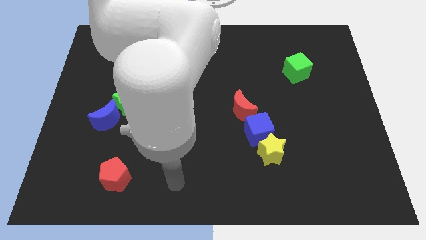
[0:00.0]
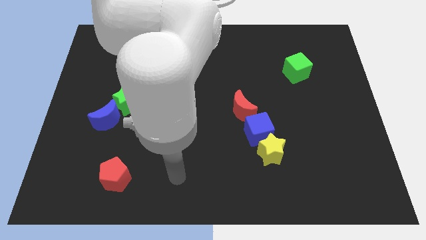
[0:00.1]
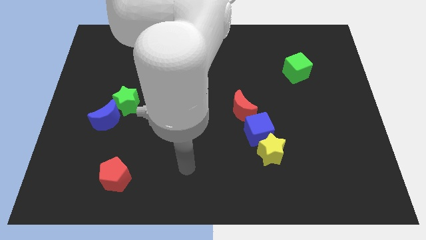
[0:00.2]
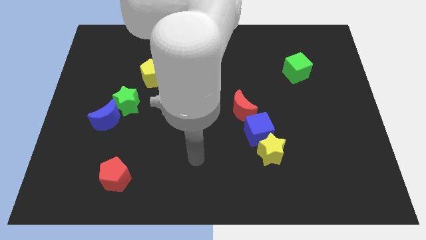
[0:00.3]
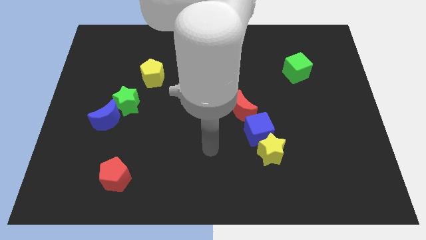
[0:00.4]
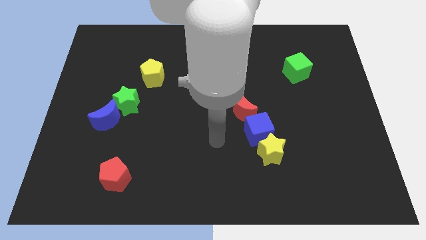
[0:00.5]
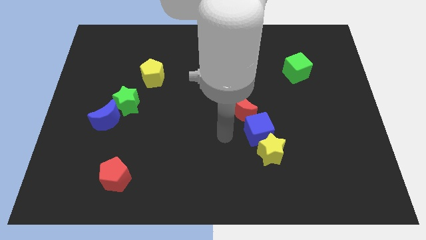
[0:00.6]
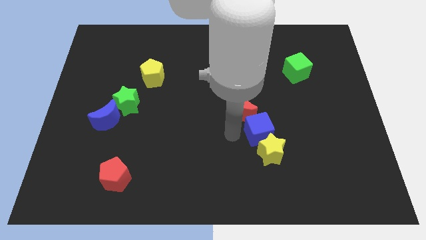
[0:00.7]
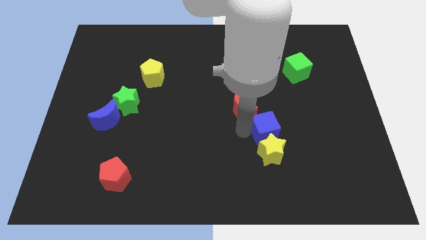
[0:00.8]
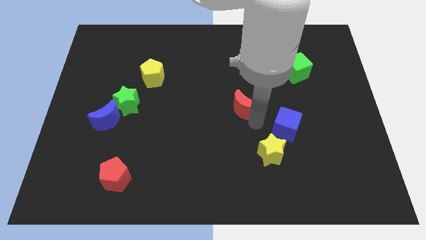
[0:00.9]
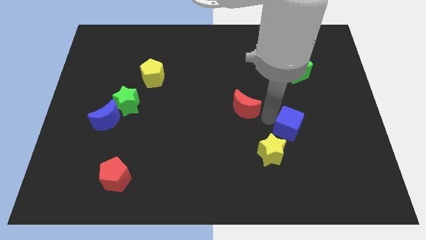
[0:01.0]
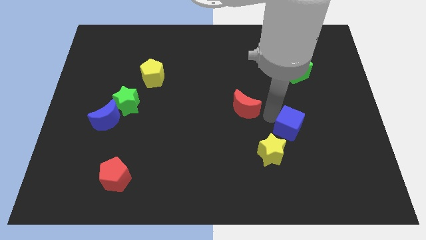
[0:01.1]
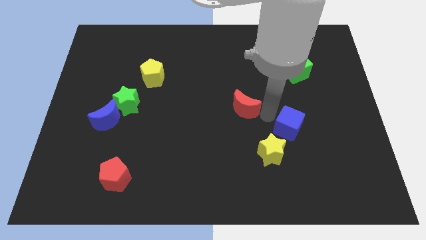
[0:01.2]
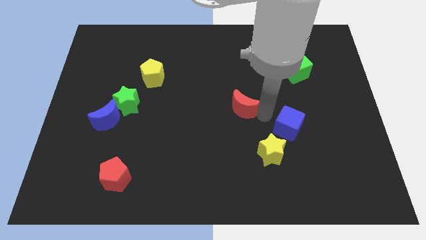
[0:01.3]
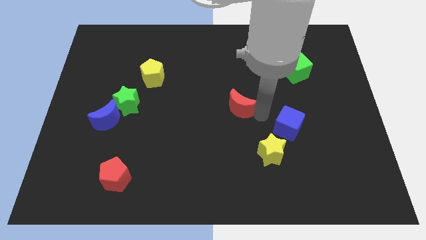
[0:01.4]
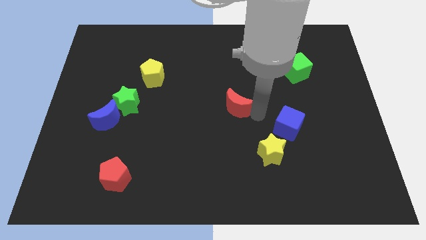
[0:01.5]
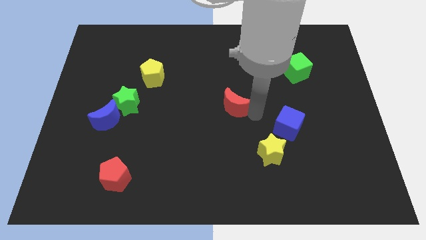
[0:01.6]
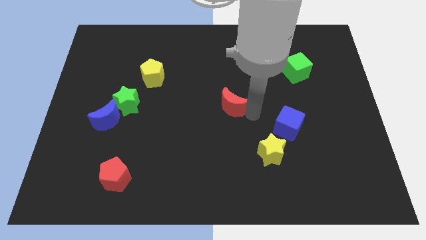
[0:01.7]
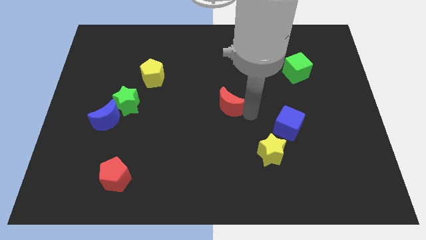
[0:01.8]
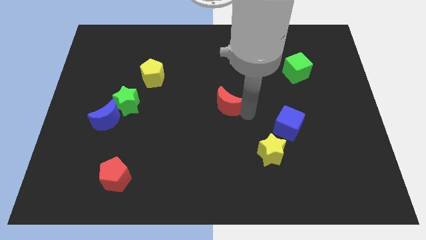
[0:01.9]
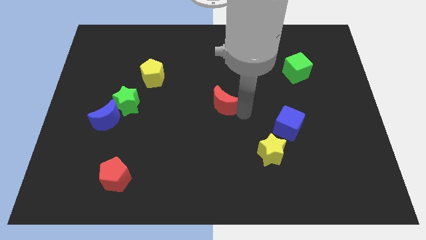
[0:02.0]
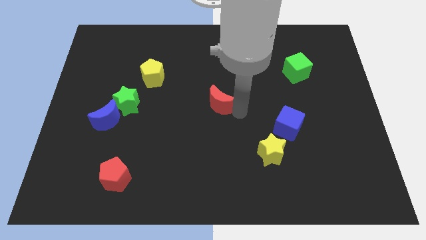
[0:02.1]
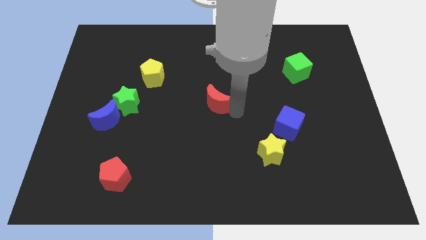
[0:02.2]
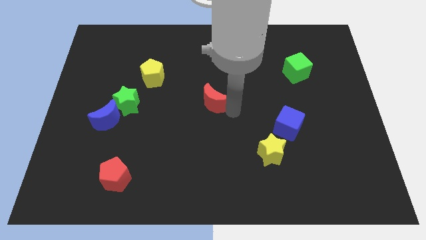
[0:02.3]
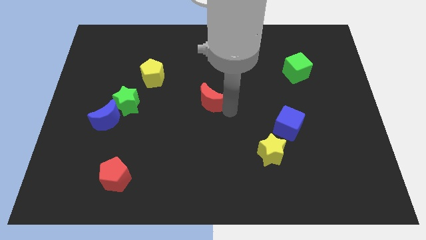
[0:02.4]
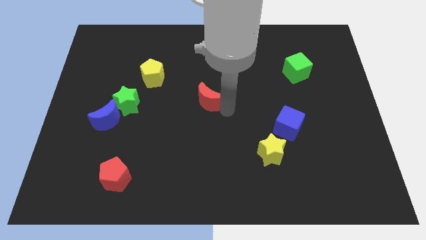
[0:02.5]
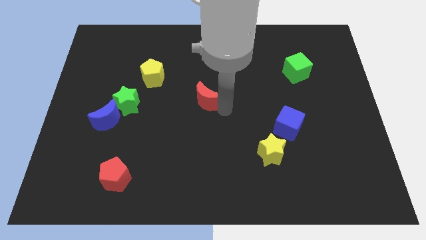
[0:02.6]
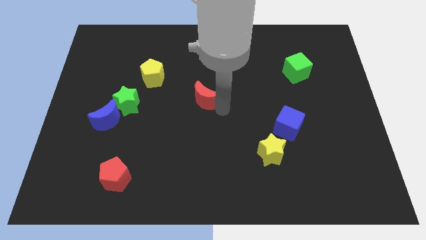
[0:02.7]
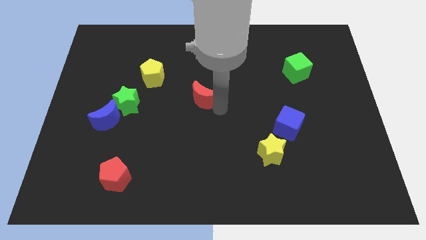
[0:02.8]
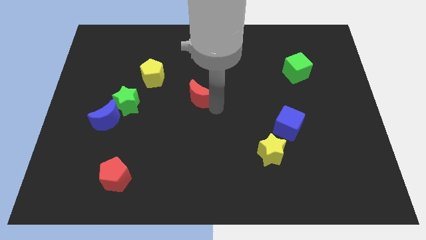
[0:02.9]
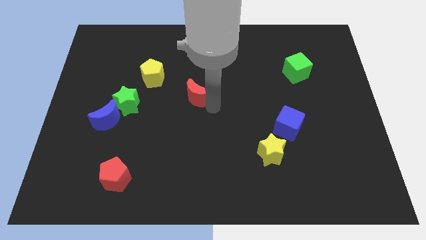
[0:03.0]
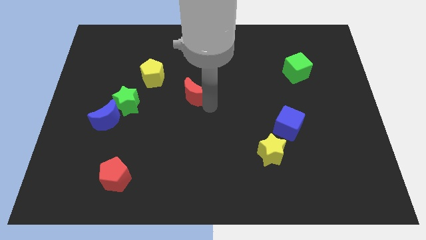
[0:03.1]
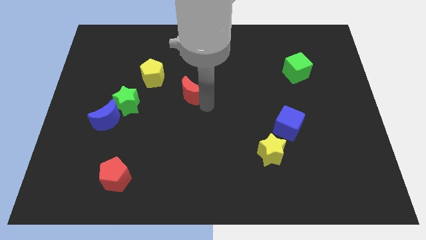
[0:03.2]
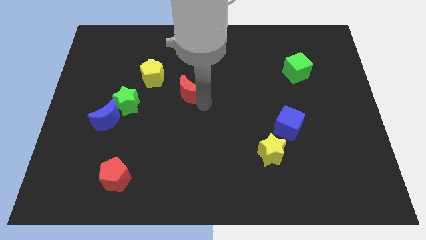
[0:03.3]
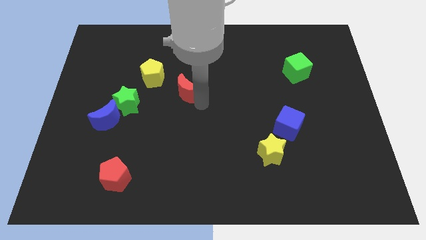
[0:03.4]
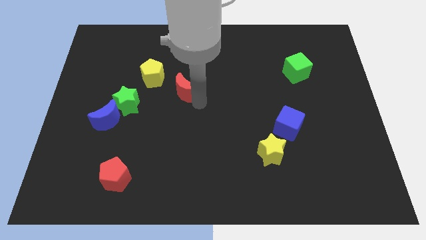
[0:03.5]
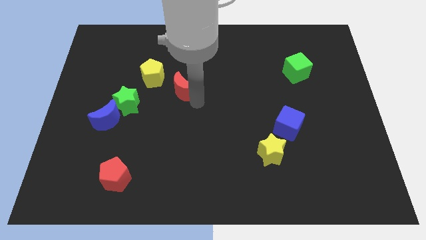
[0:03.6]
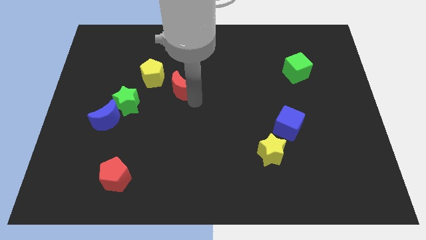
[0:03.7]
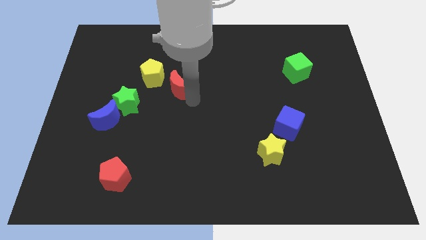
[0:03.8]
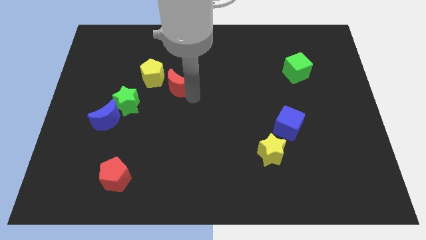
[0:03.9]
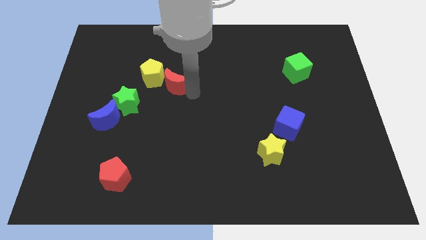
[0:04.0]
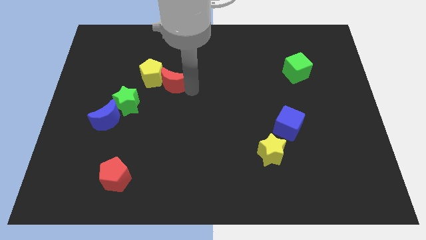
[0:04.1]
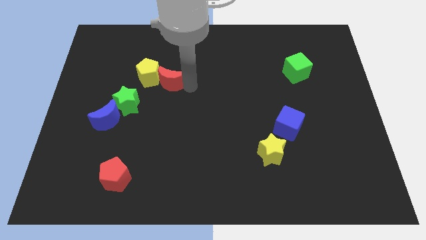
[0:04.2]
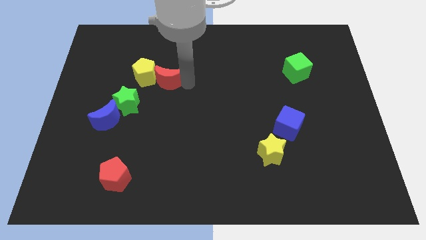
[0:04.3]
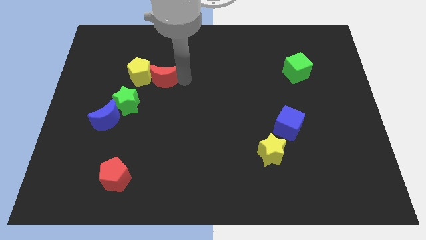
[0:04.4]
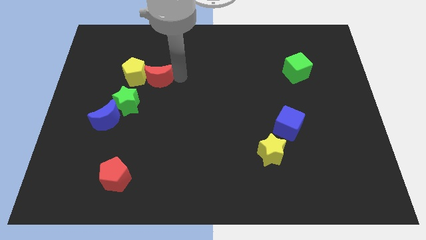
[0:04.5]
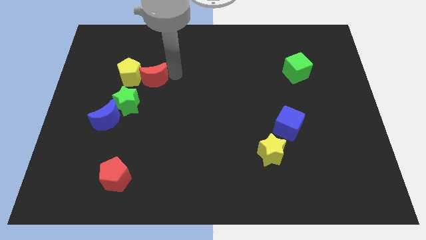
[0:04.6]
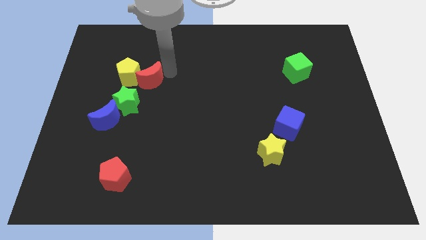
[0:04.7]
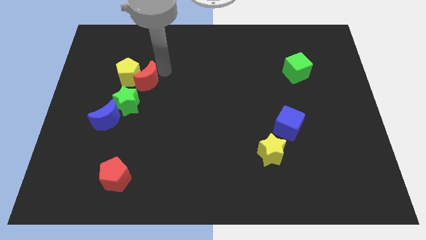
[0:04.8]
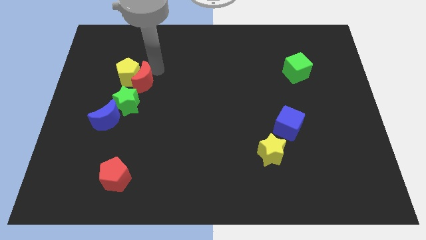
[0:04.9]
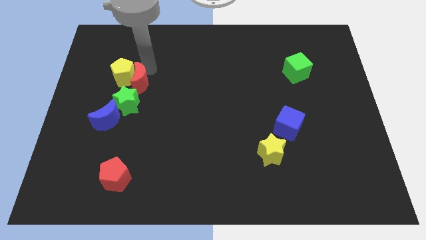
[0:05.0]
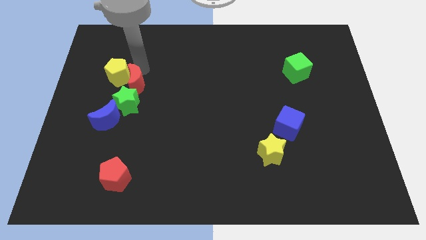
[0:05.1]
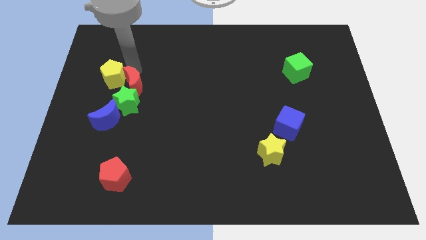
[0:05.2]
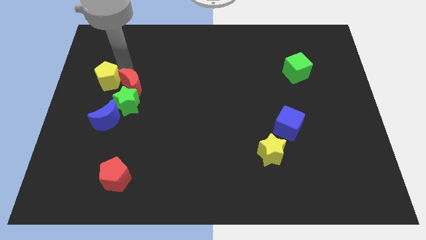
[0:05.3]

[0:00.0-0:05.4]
move the red moon to the top left of the green star

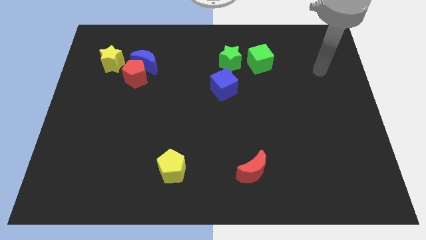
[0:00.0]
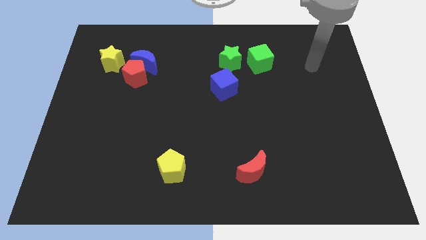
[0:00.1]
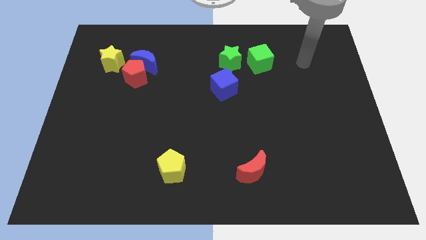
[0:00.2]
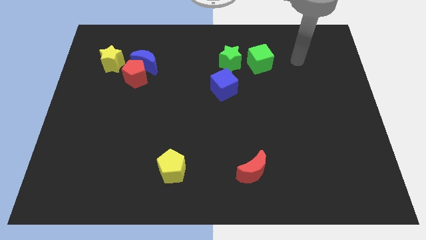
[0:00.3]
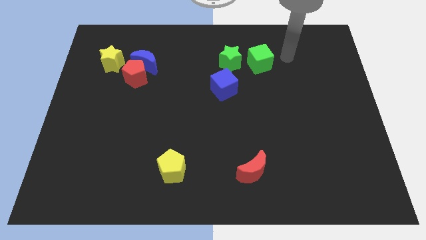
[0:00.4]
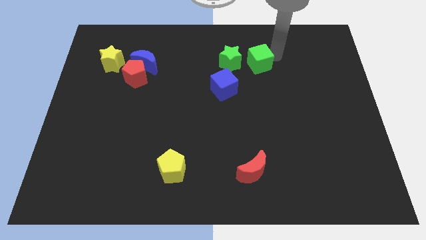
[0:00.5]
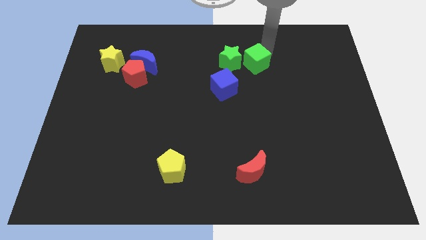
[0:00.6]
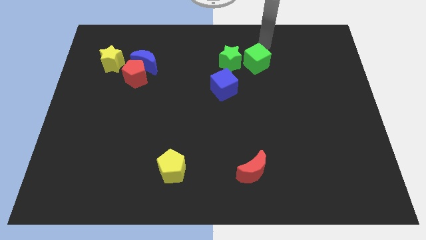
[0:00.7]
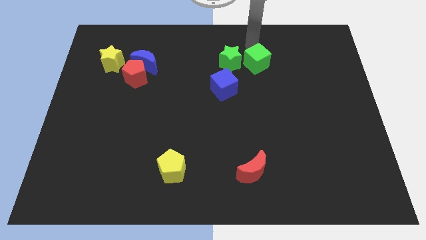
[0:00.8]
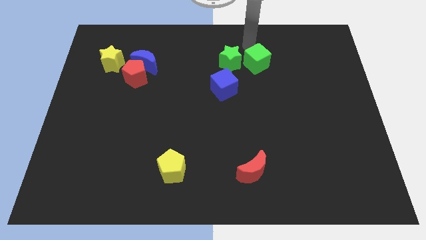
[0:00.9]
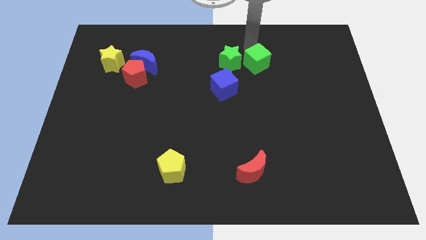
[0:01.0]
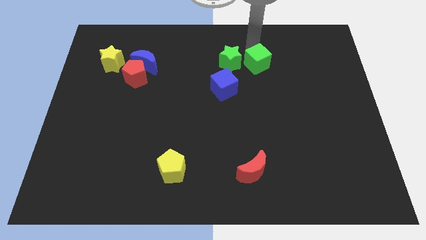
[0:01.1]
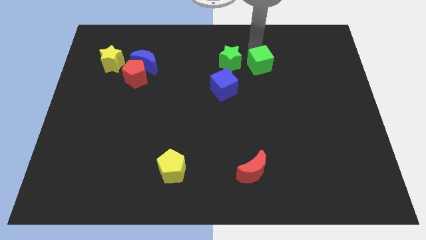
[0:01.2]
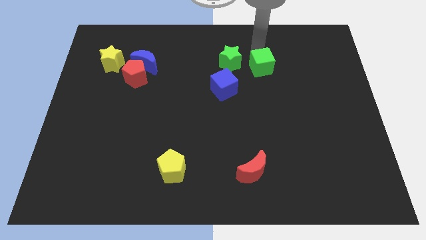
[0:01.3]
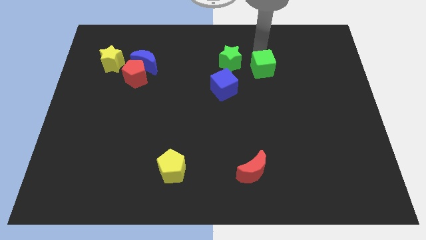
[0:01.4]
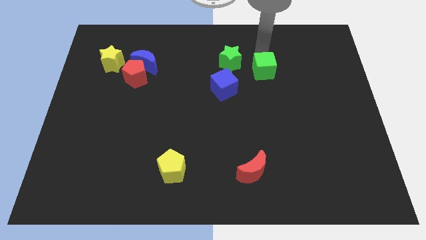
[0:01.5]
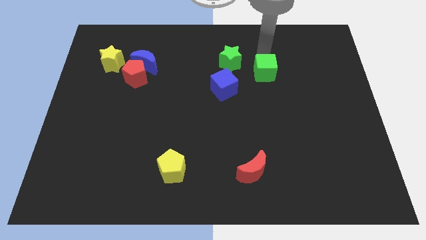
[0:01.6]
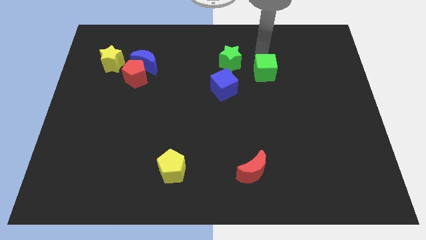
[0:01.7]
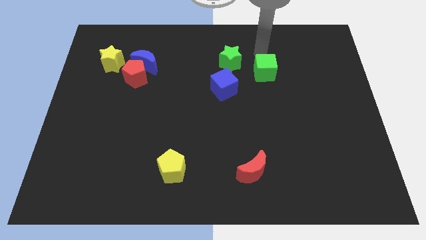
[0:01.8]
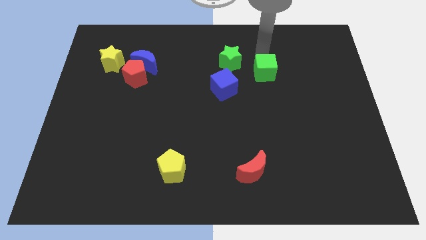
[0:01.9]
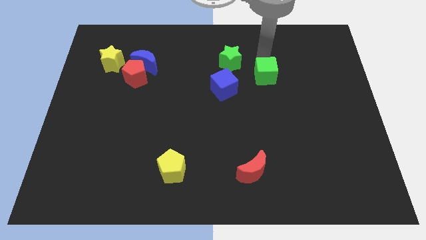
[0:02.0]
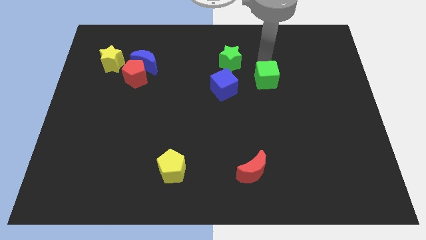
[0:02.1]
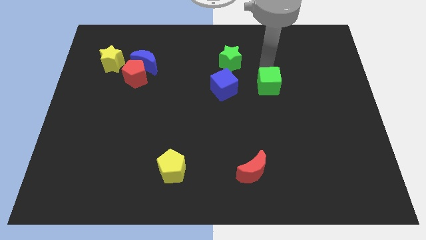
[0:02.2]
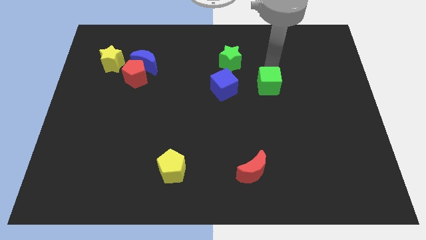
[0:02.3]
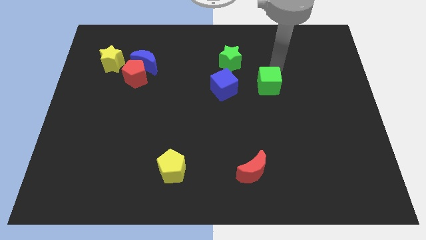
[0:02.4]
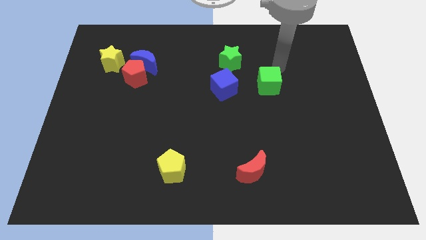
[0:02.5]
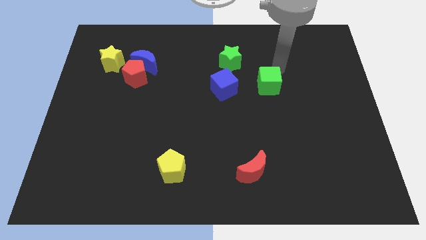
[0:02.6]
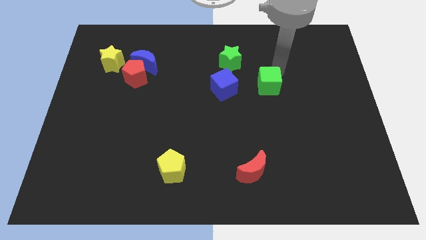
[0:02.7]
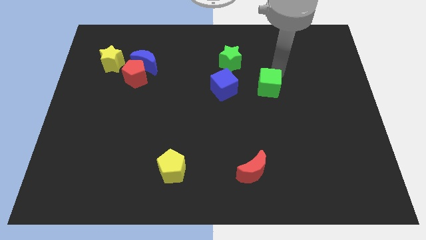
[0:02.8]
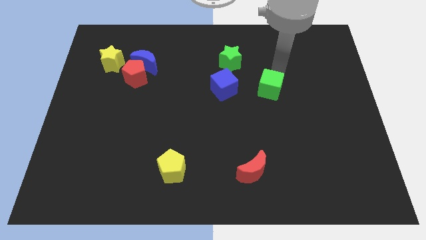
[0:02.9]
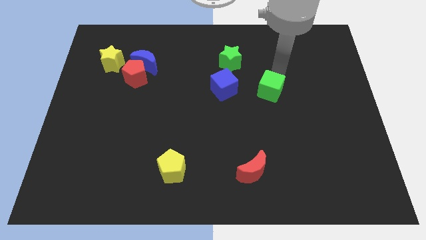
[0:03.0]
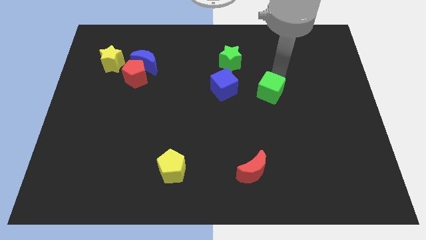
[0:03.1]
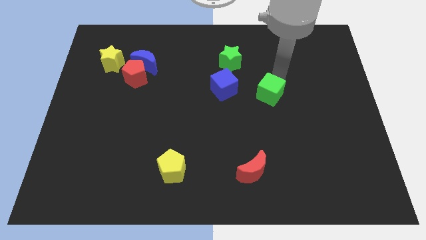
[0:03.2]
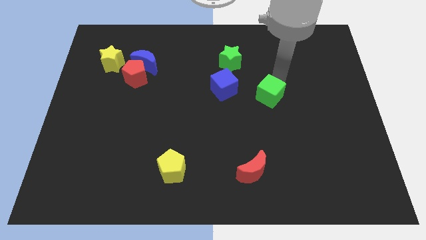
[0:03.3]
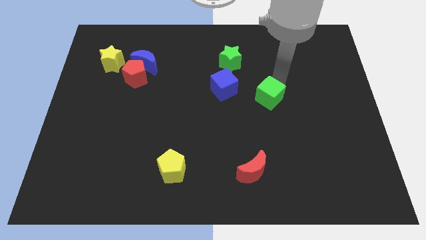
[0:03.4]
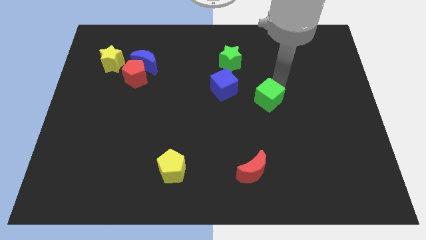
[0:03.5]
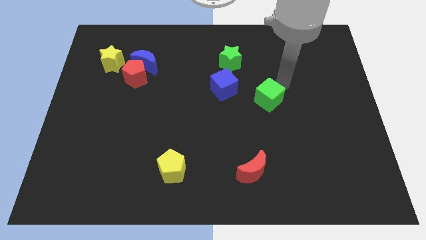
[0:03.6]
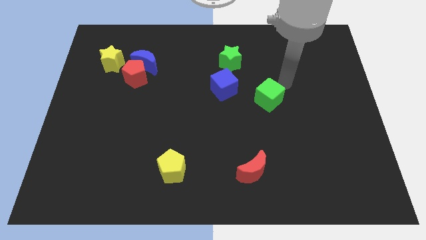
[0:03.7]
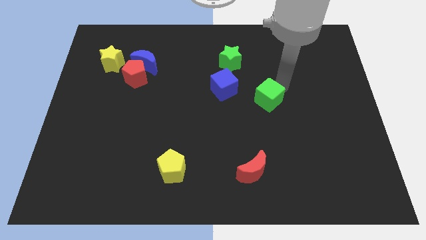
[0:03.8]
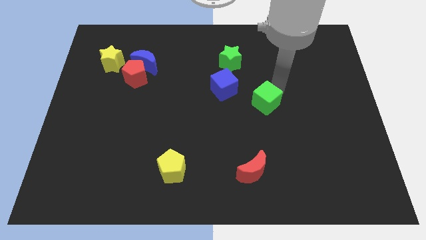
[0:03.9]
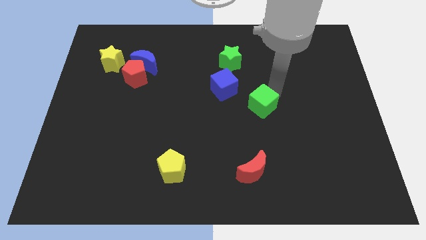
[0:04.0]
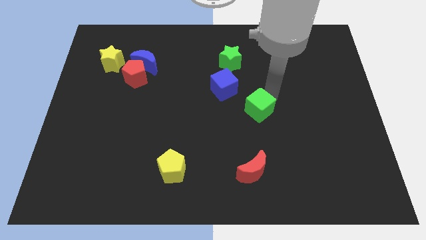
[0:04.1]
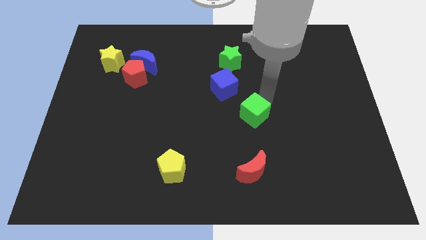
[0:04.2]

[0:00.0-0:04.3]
push the green cube to the top side of the red moon
